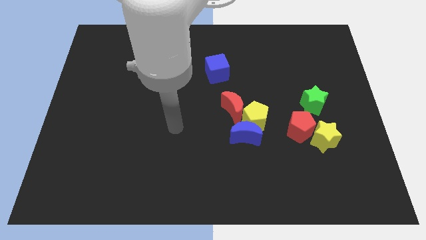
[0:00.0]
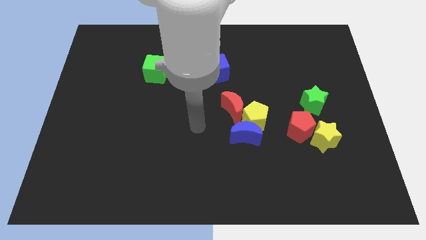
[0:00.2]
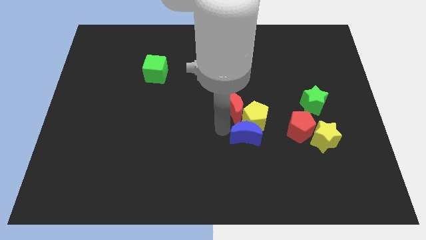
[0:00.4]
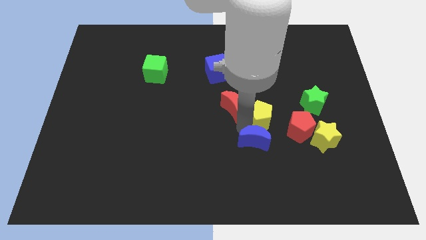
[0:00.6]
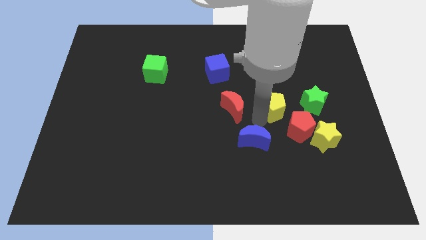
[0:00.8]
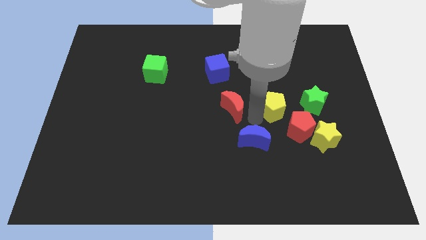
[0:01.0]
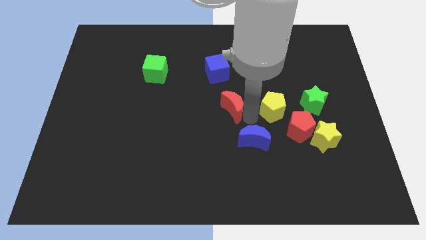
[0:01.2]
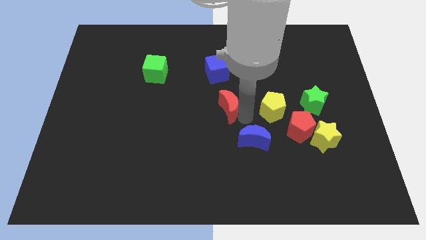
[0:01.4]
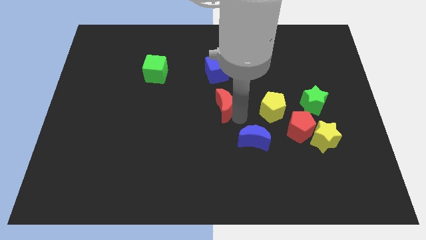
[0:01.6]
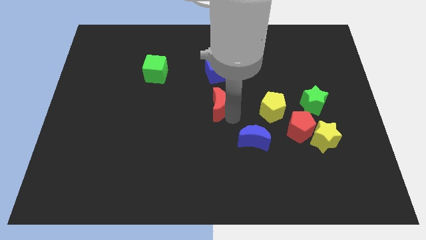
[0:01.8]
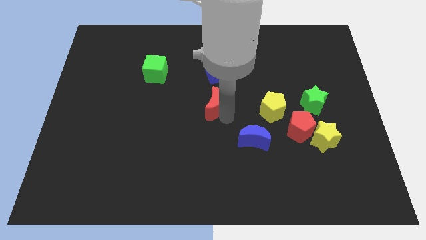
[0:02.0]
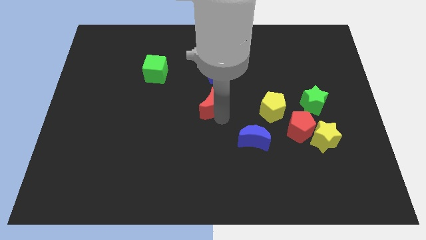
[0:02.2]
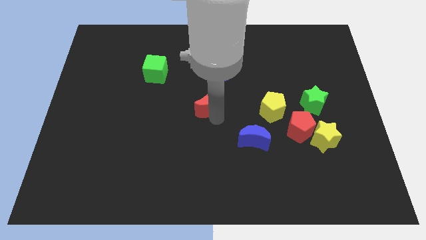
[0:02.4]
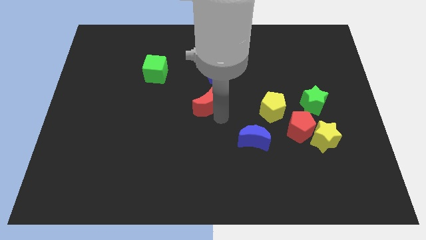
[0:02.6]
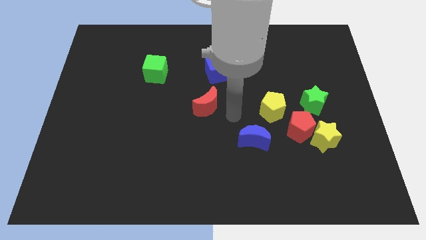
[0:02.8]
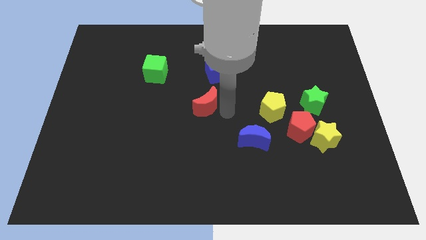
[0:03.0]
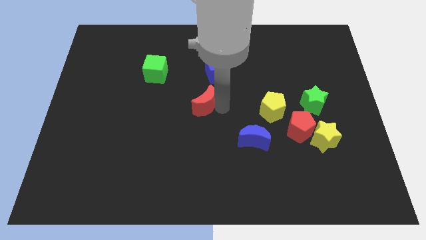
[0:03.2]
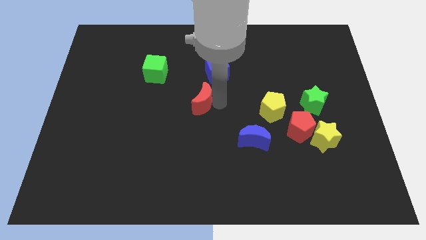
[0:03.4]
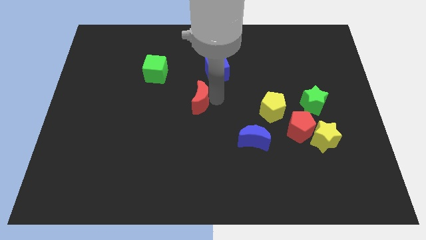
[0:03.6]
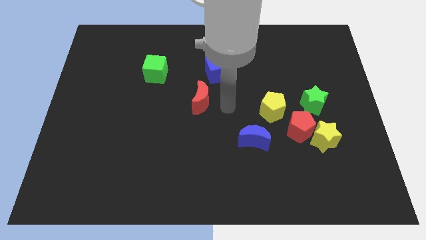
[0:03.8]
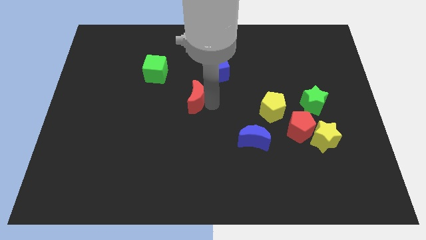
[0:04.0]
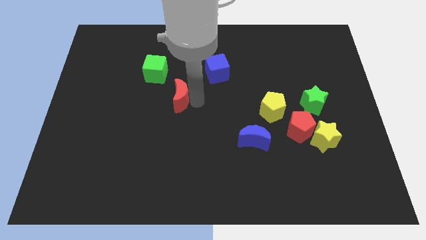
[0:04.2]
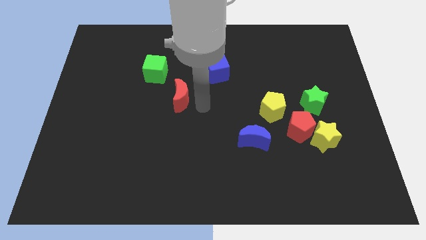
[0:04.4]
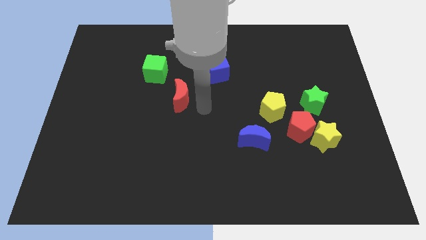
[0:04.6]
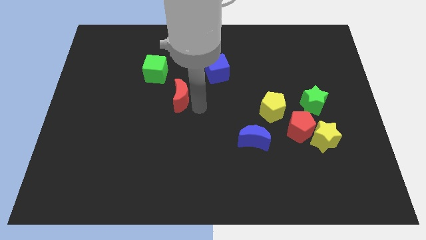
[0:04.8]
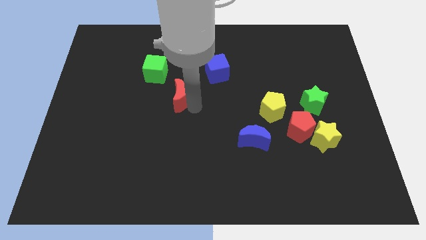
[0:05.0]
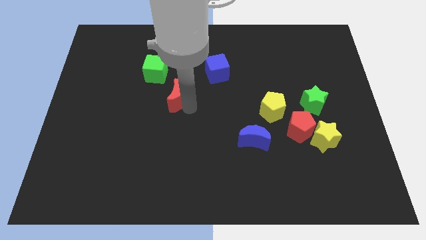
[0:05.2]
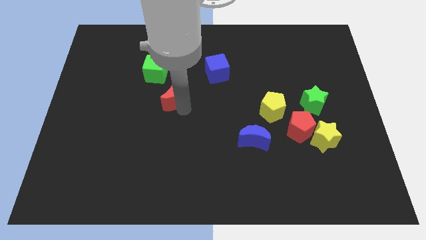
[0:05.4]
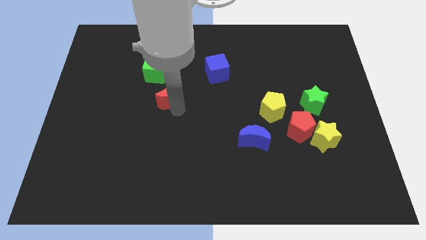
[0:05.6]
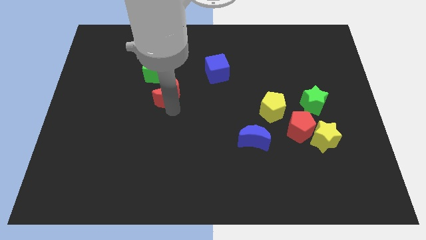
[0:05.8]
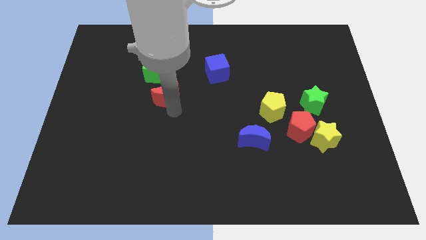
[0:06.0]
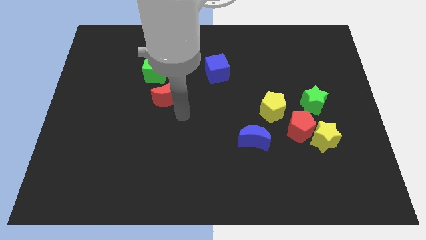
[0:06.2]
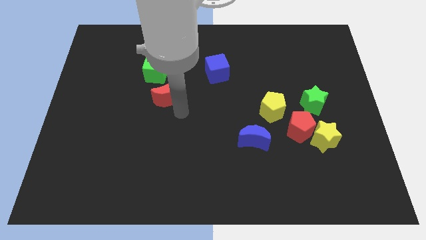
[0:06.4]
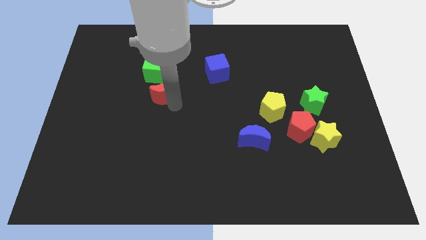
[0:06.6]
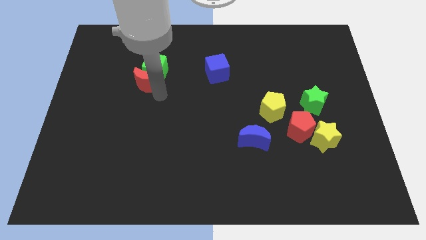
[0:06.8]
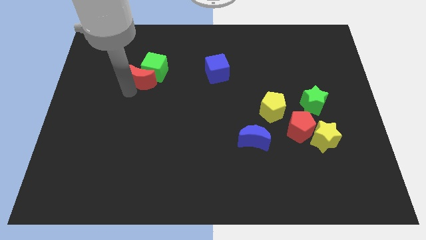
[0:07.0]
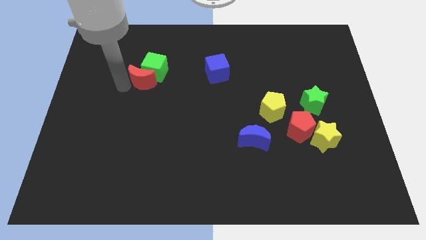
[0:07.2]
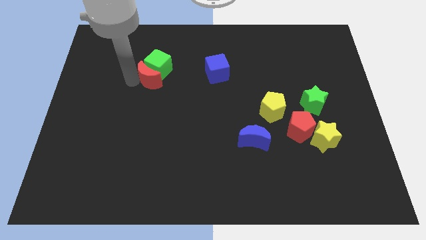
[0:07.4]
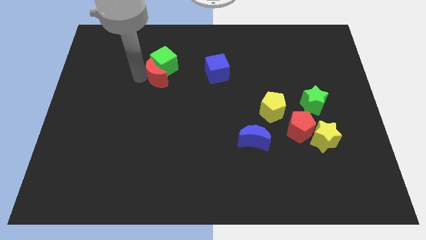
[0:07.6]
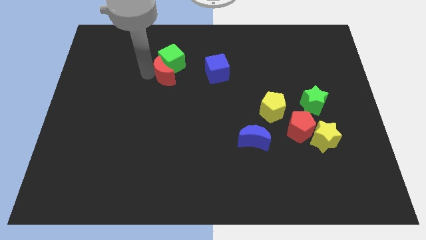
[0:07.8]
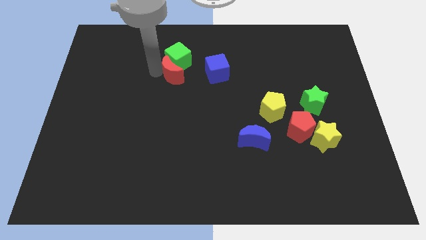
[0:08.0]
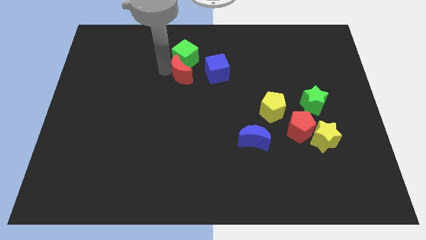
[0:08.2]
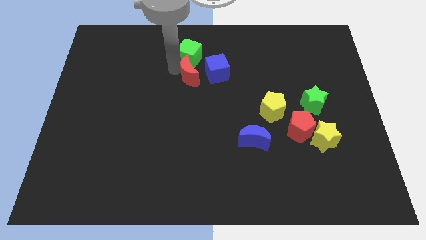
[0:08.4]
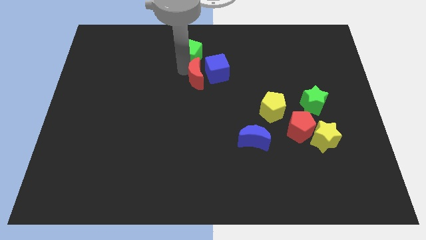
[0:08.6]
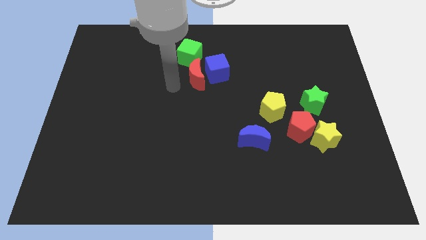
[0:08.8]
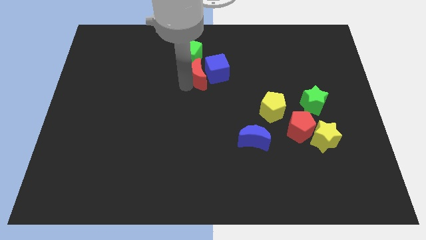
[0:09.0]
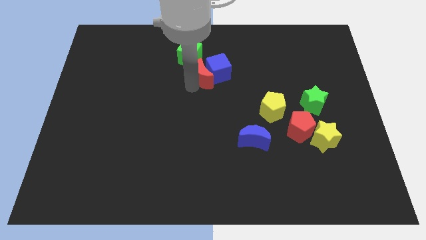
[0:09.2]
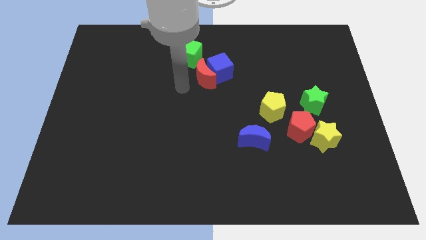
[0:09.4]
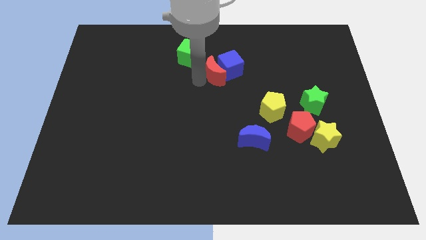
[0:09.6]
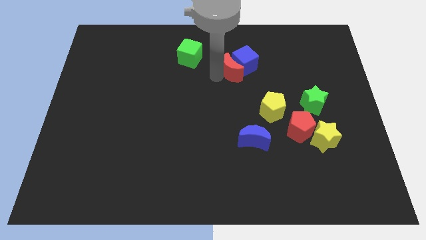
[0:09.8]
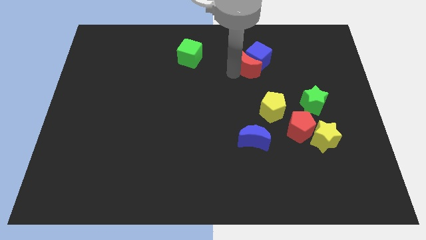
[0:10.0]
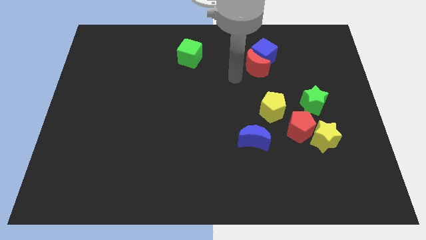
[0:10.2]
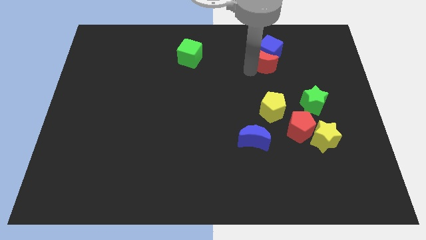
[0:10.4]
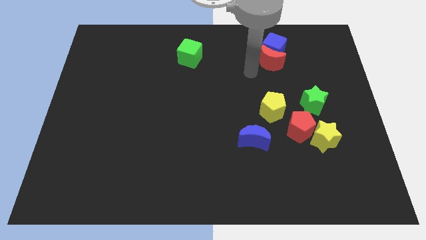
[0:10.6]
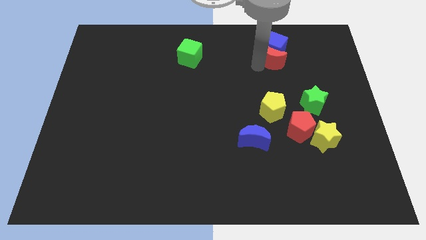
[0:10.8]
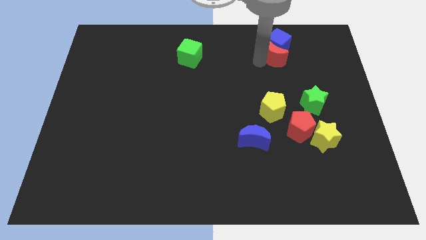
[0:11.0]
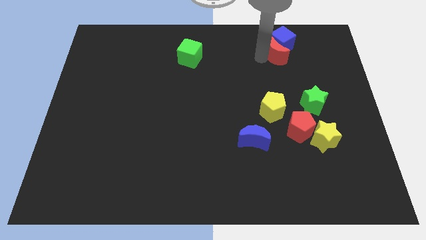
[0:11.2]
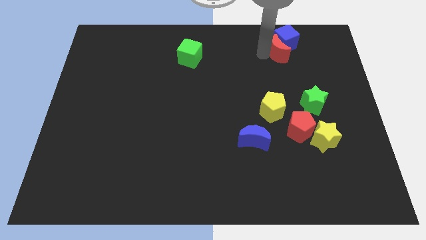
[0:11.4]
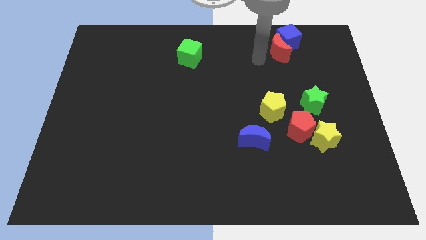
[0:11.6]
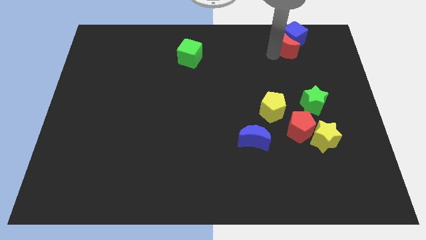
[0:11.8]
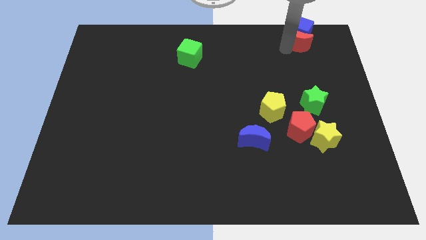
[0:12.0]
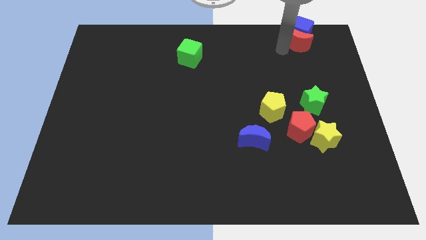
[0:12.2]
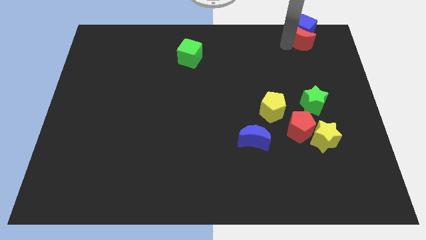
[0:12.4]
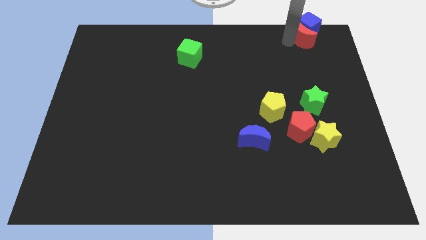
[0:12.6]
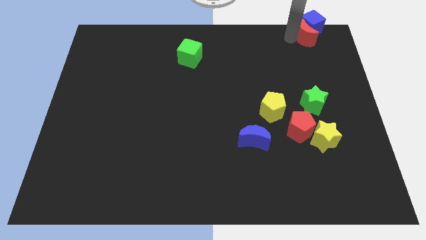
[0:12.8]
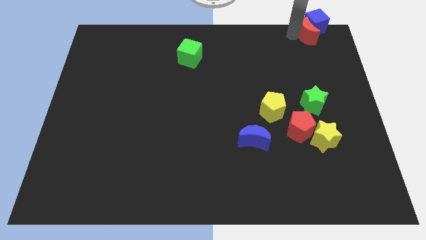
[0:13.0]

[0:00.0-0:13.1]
move the red moon to the upper right corner
